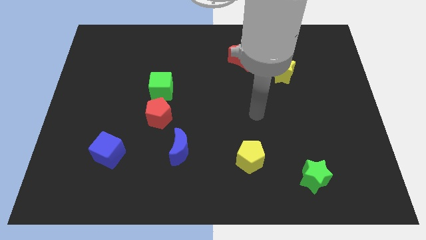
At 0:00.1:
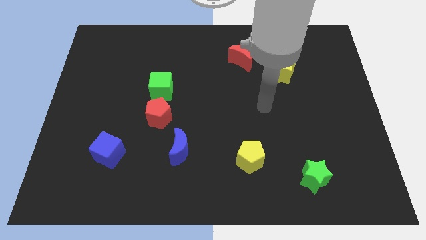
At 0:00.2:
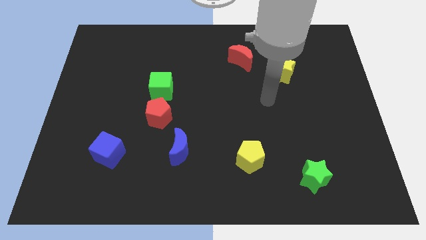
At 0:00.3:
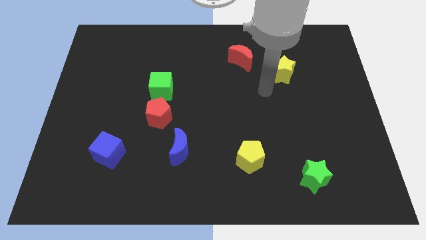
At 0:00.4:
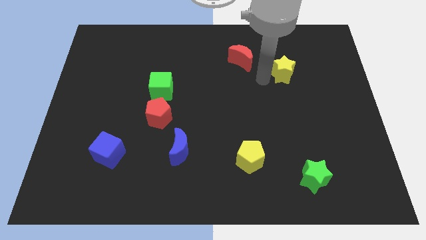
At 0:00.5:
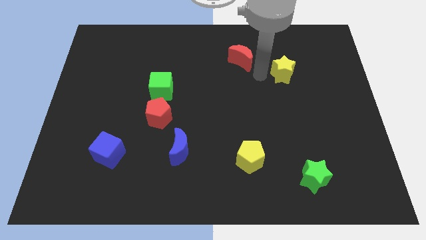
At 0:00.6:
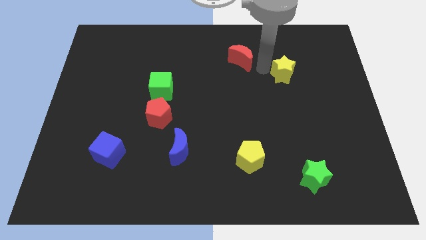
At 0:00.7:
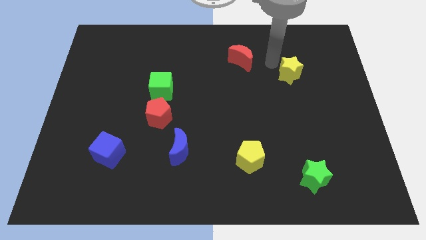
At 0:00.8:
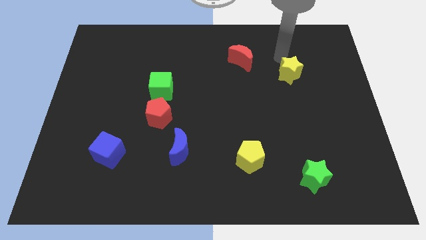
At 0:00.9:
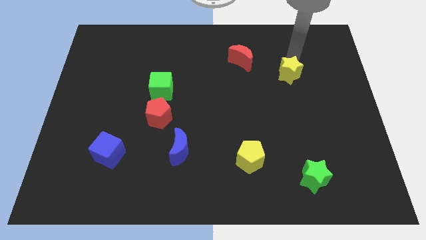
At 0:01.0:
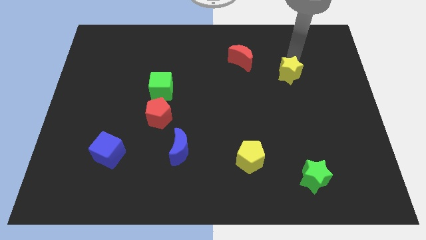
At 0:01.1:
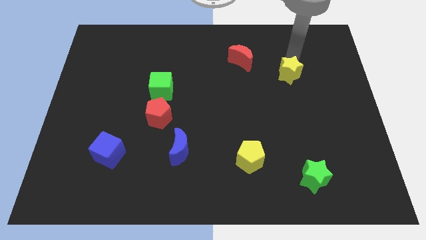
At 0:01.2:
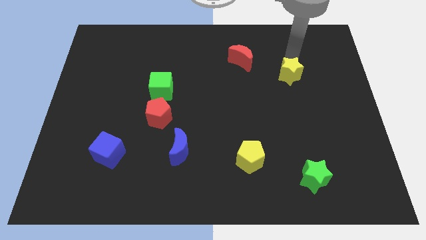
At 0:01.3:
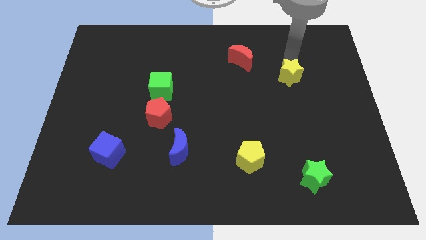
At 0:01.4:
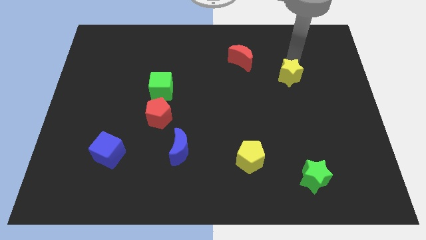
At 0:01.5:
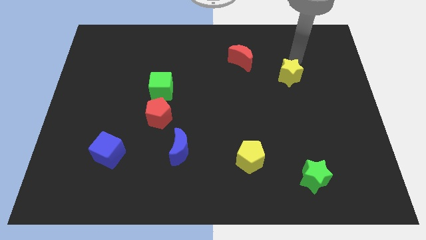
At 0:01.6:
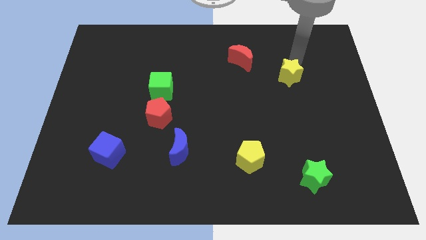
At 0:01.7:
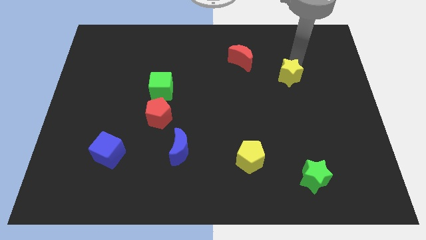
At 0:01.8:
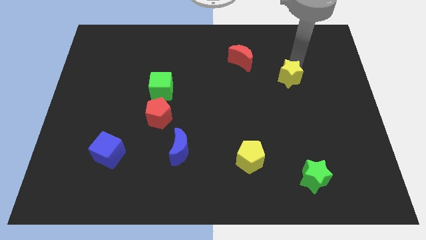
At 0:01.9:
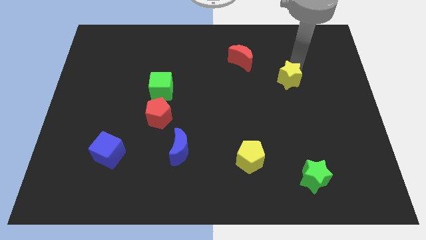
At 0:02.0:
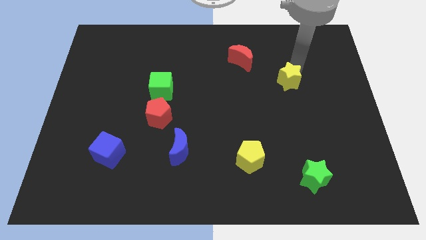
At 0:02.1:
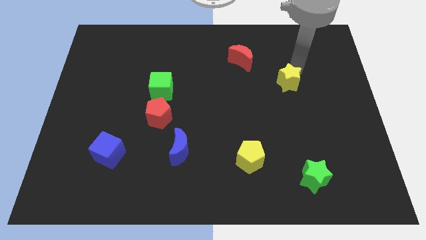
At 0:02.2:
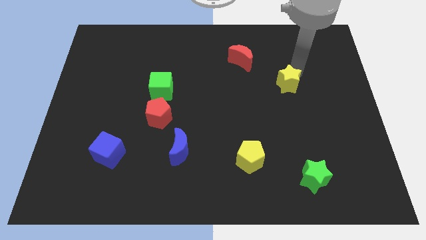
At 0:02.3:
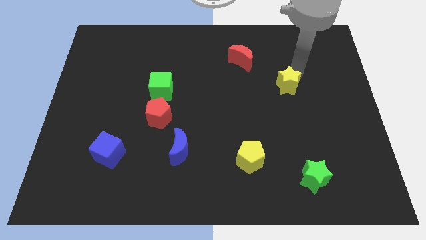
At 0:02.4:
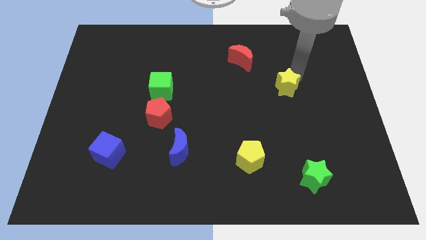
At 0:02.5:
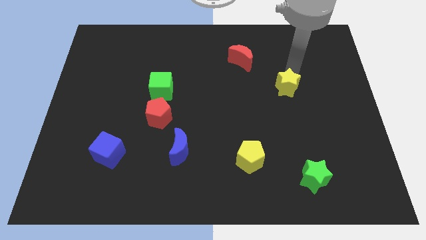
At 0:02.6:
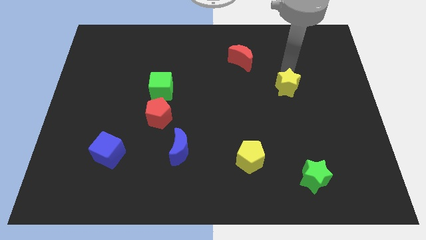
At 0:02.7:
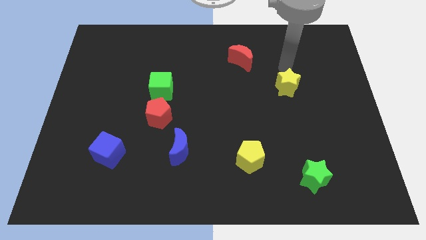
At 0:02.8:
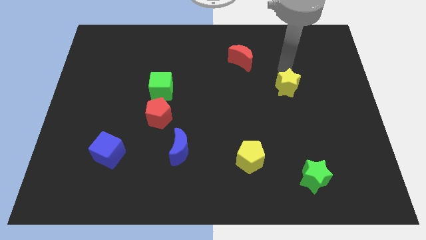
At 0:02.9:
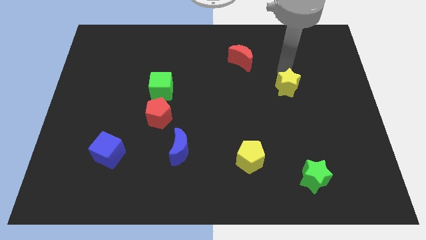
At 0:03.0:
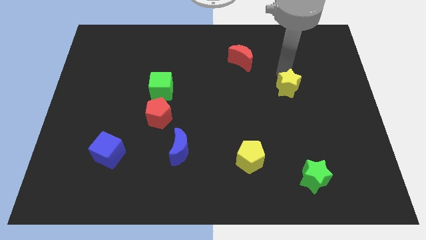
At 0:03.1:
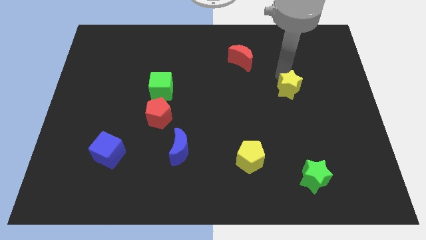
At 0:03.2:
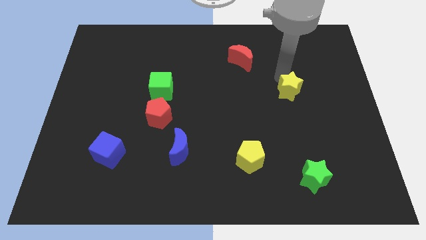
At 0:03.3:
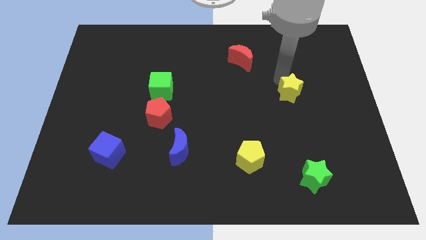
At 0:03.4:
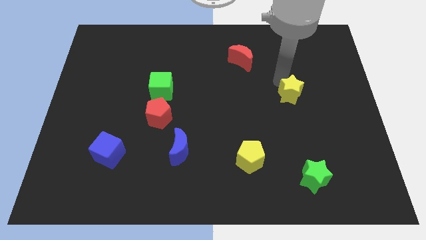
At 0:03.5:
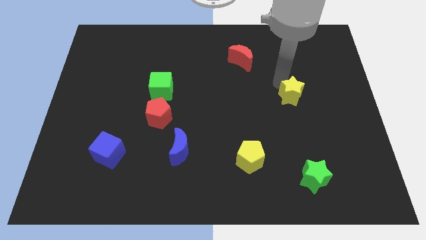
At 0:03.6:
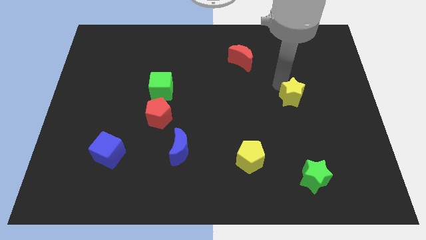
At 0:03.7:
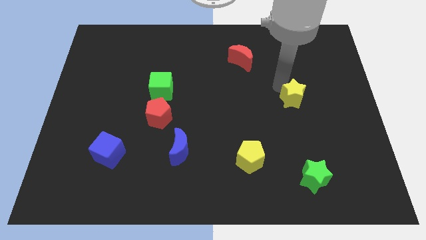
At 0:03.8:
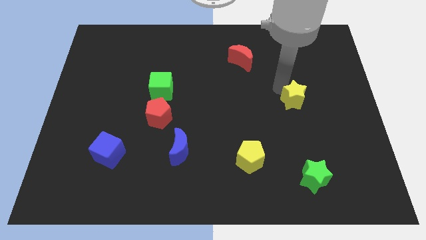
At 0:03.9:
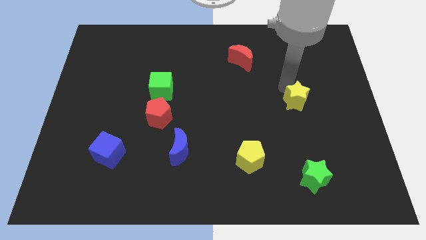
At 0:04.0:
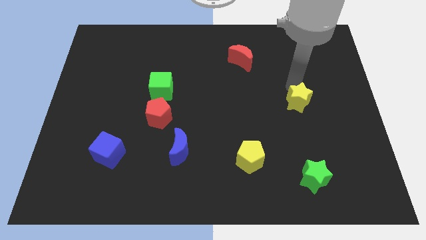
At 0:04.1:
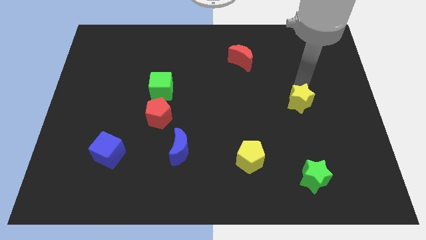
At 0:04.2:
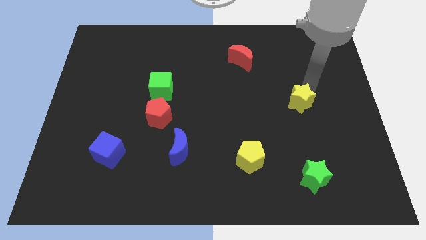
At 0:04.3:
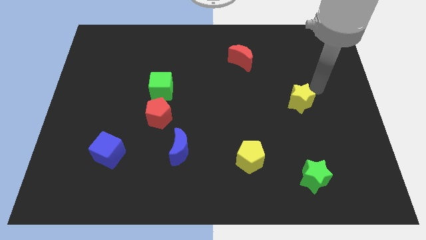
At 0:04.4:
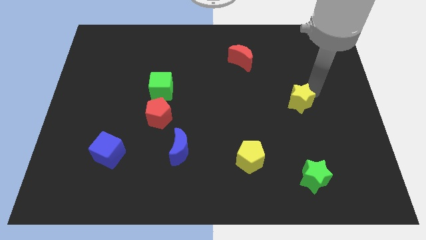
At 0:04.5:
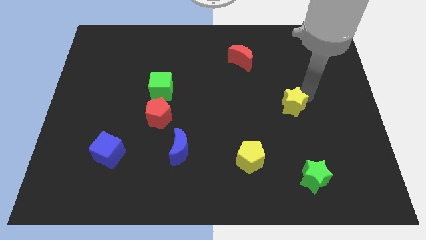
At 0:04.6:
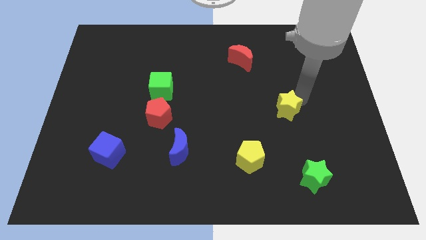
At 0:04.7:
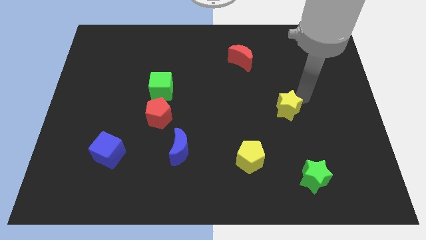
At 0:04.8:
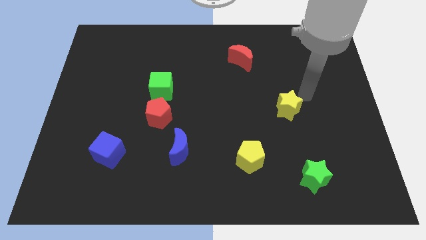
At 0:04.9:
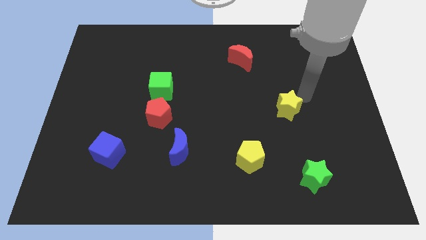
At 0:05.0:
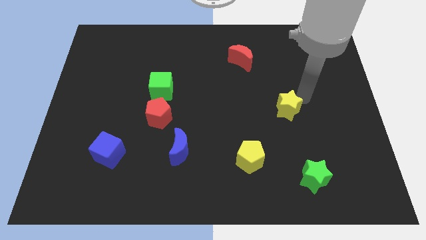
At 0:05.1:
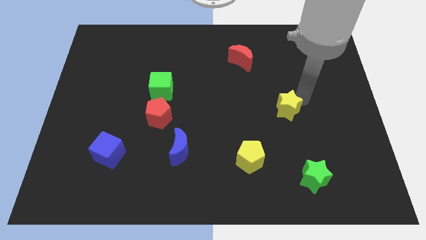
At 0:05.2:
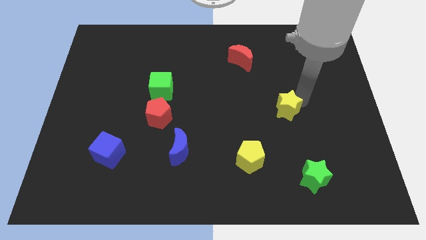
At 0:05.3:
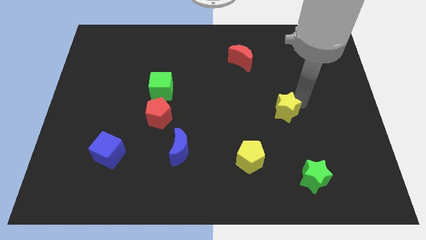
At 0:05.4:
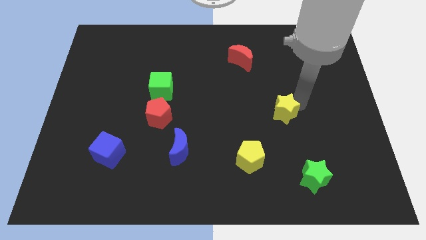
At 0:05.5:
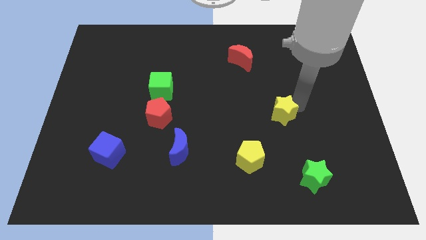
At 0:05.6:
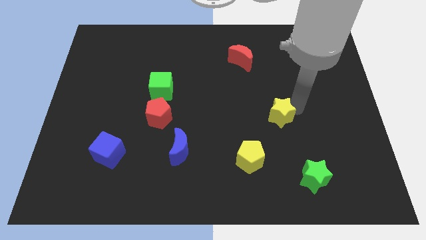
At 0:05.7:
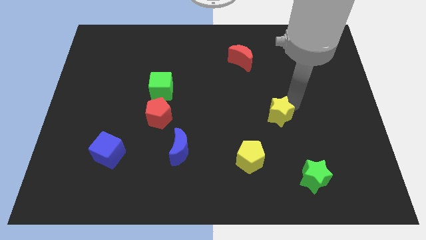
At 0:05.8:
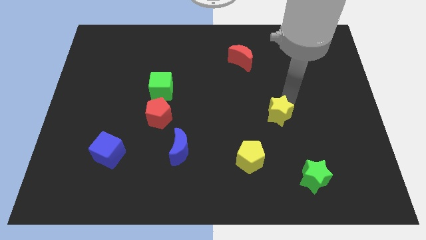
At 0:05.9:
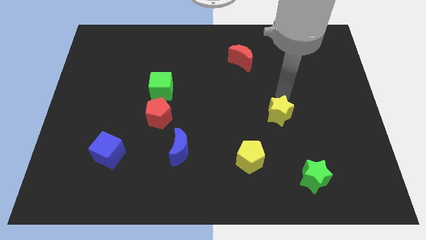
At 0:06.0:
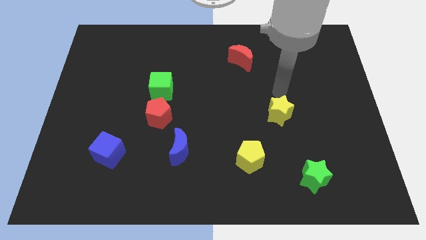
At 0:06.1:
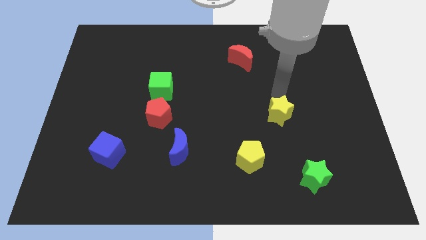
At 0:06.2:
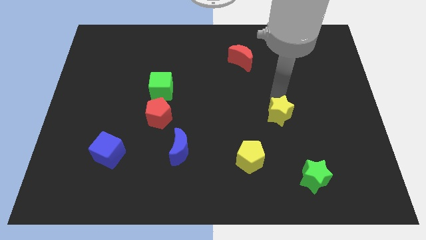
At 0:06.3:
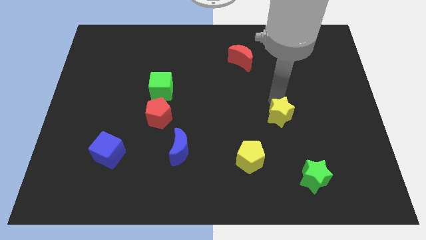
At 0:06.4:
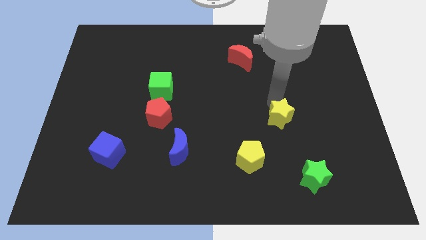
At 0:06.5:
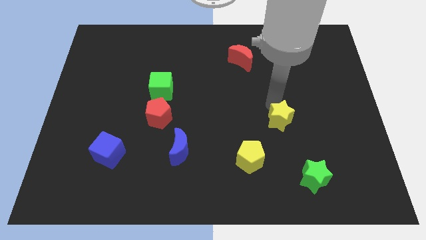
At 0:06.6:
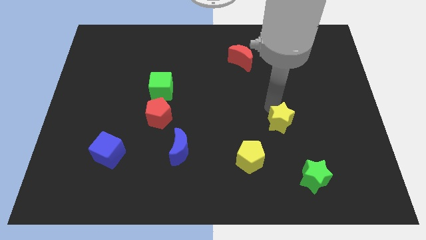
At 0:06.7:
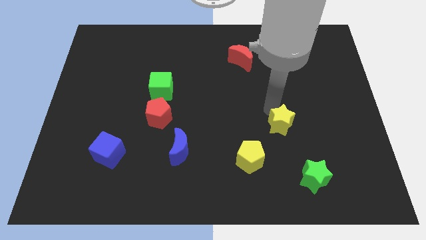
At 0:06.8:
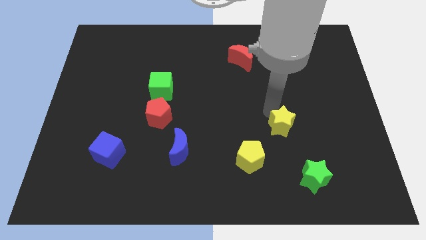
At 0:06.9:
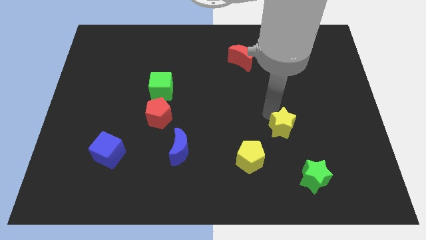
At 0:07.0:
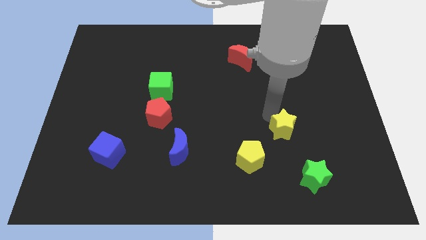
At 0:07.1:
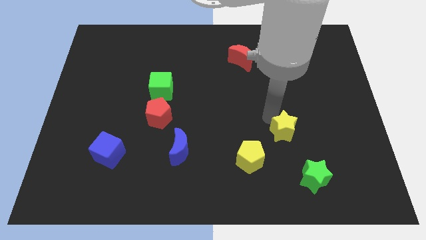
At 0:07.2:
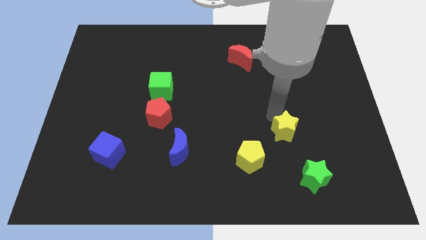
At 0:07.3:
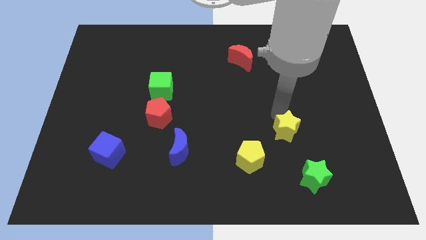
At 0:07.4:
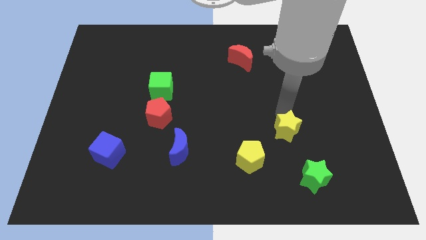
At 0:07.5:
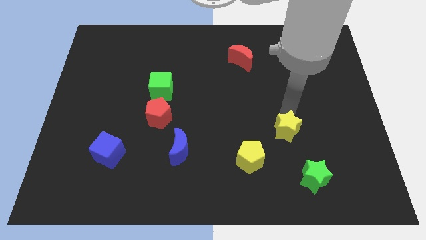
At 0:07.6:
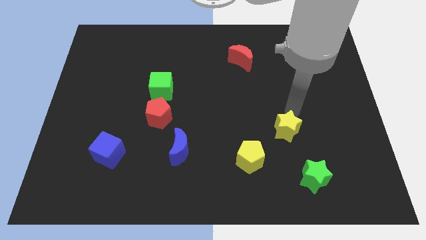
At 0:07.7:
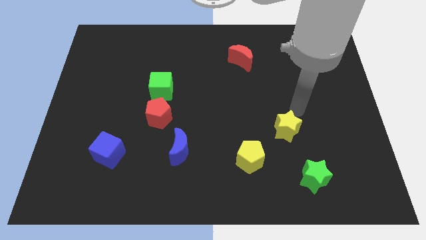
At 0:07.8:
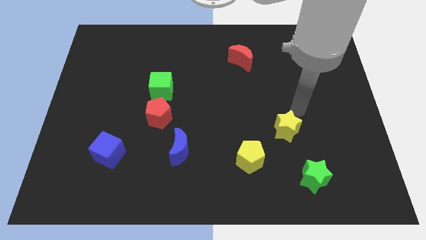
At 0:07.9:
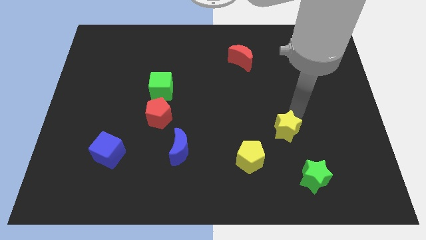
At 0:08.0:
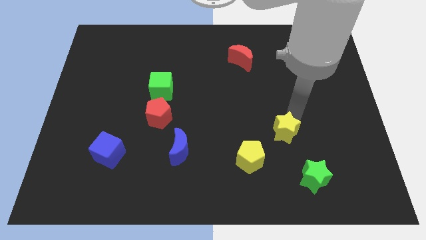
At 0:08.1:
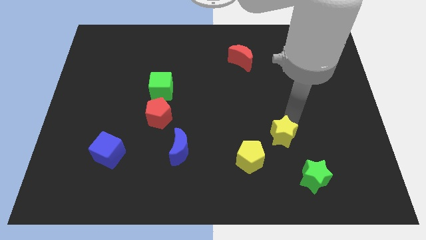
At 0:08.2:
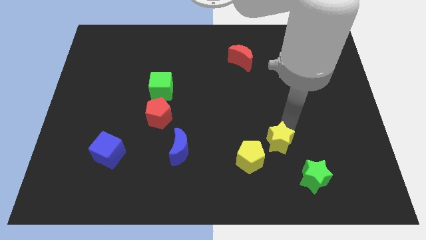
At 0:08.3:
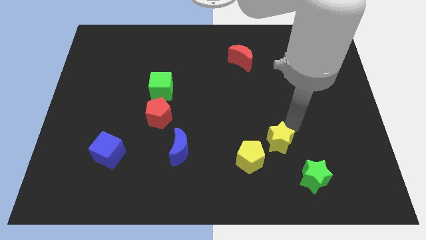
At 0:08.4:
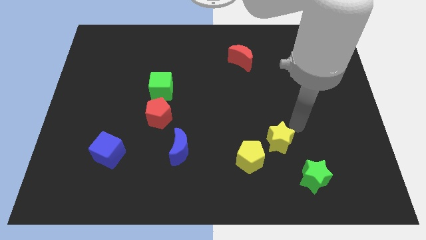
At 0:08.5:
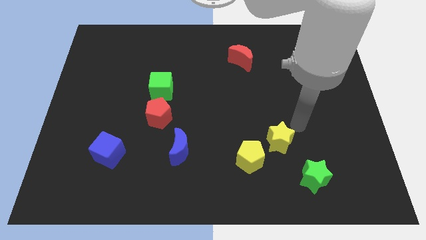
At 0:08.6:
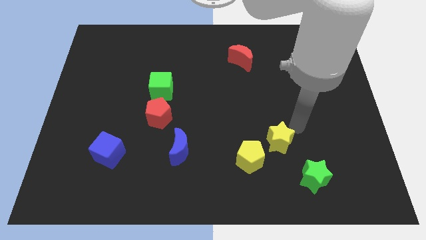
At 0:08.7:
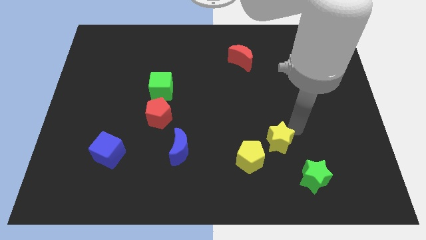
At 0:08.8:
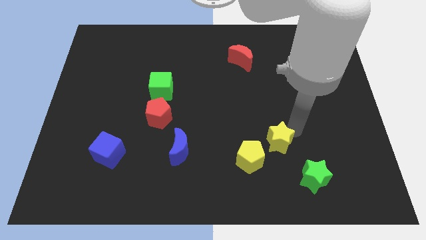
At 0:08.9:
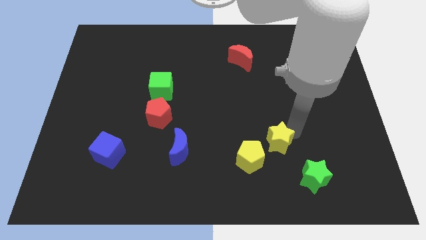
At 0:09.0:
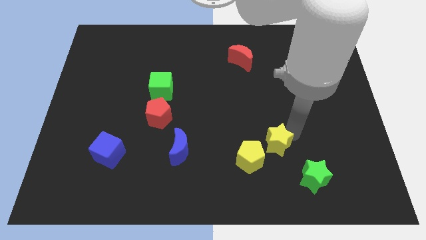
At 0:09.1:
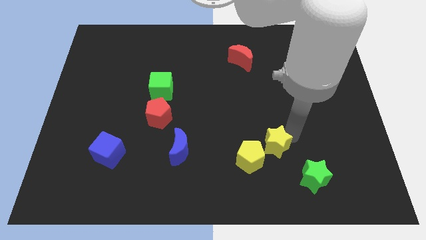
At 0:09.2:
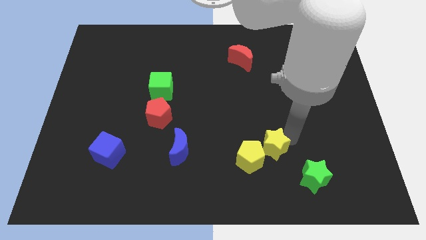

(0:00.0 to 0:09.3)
move the yellow star towards the yellow pentagon
